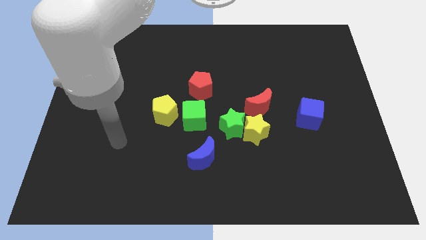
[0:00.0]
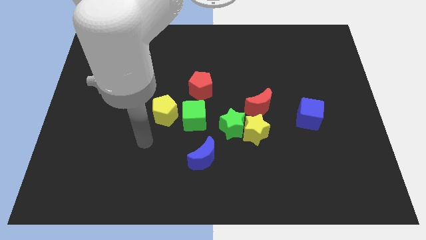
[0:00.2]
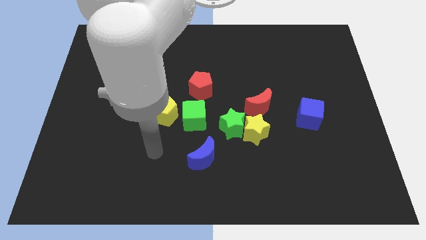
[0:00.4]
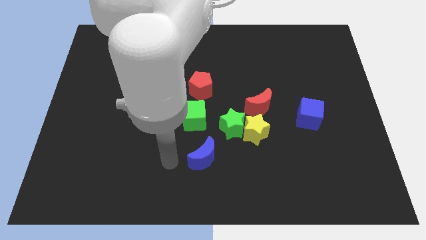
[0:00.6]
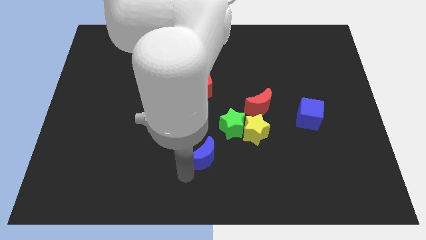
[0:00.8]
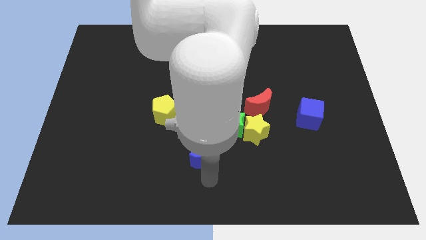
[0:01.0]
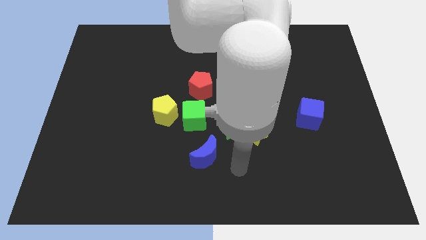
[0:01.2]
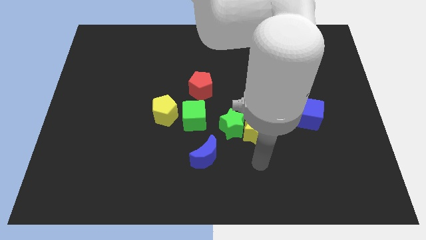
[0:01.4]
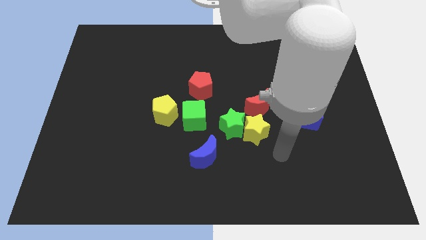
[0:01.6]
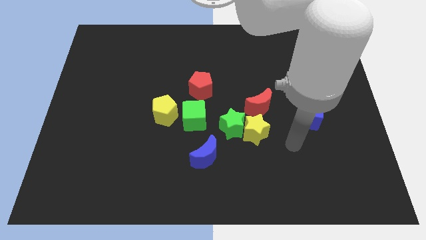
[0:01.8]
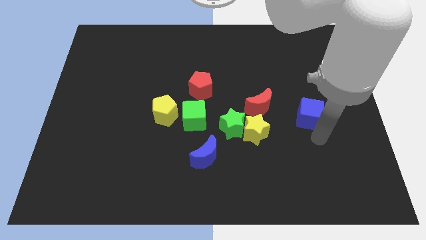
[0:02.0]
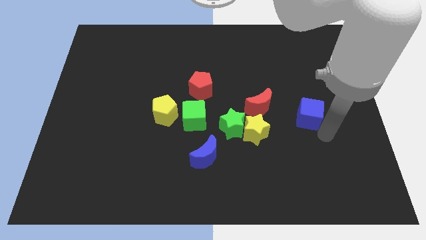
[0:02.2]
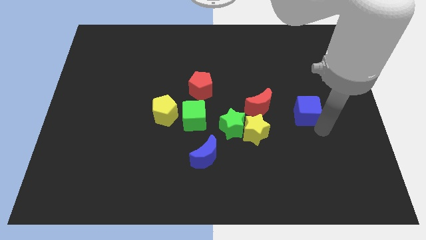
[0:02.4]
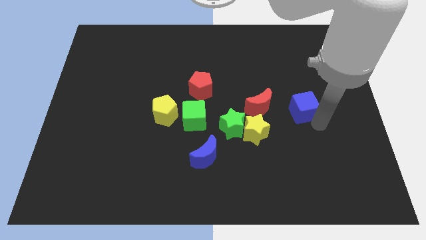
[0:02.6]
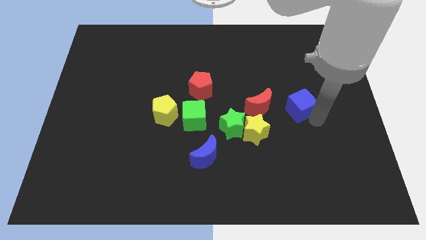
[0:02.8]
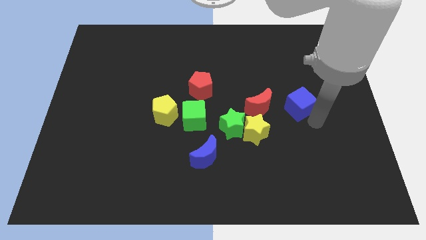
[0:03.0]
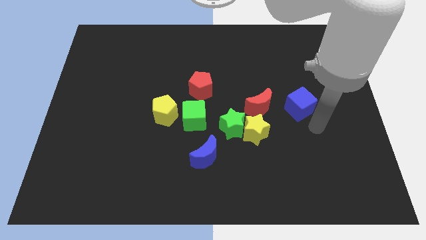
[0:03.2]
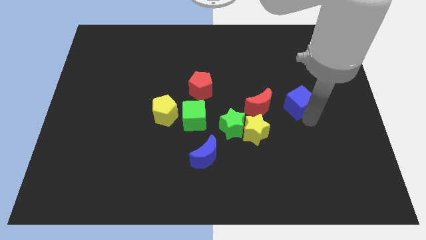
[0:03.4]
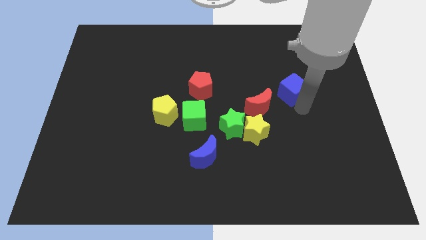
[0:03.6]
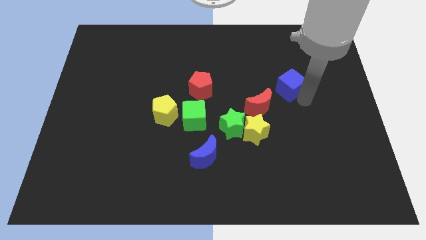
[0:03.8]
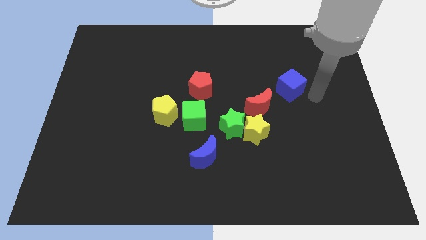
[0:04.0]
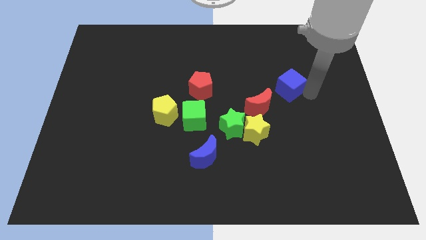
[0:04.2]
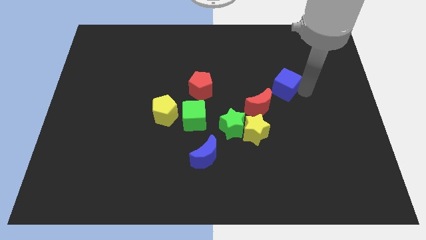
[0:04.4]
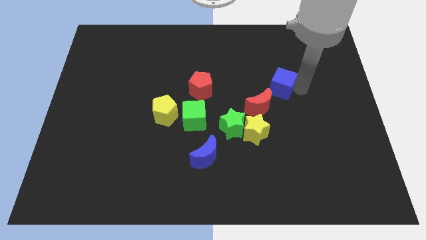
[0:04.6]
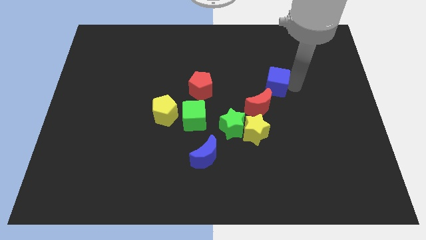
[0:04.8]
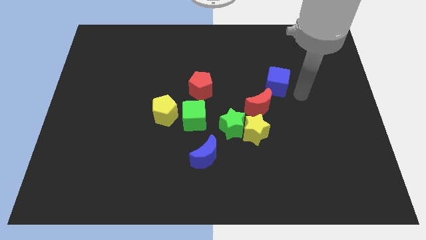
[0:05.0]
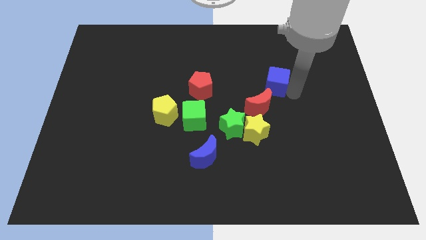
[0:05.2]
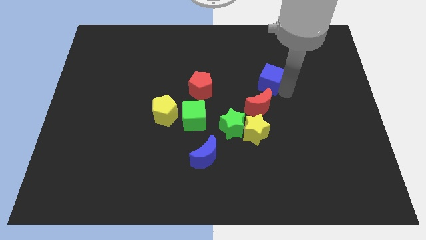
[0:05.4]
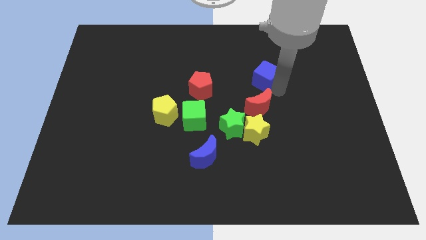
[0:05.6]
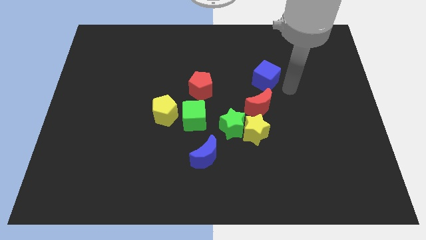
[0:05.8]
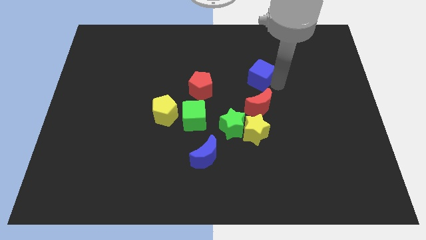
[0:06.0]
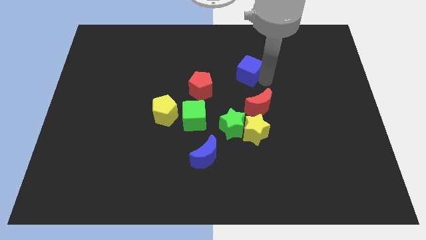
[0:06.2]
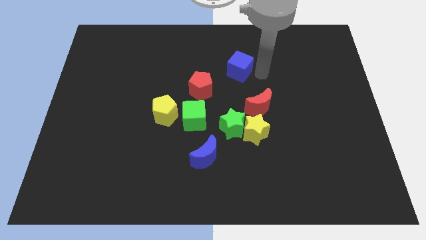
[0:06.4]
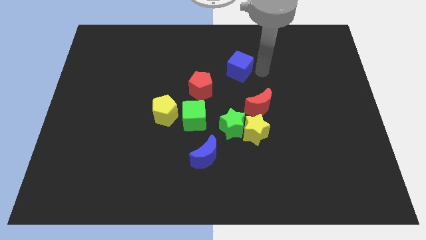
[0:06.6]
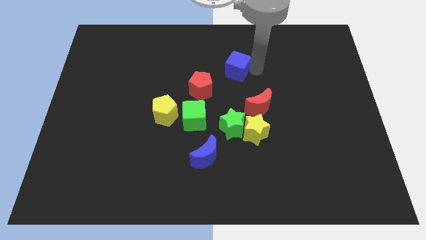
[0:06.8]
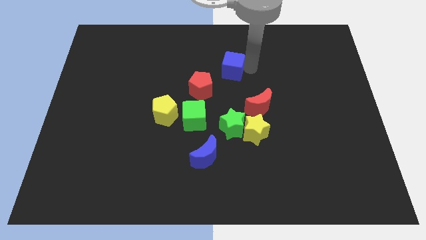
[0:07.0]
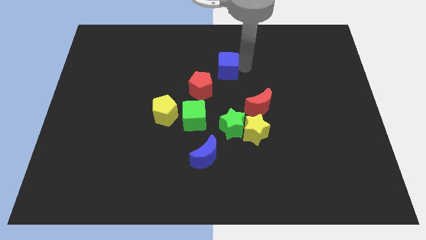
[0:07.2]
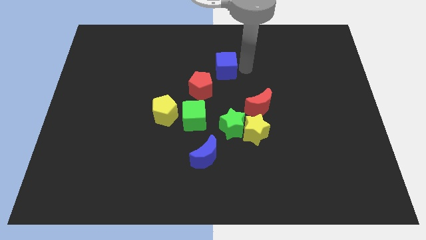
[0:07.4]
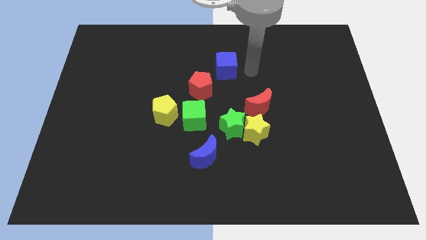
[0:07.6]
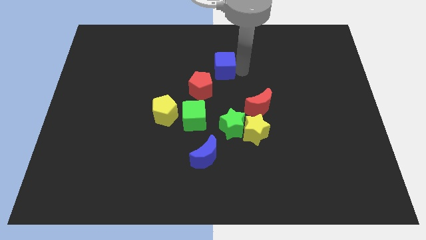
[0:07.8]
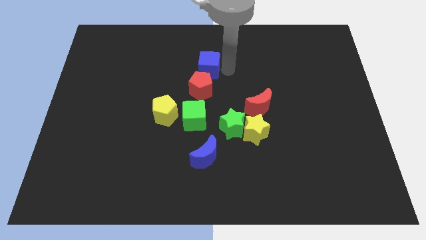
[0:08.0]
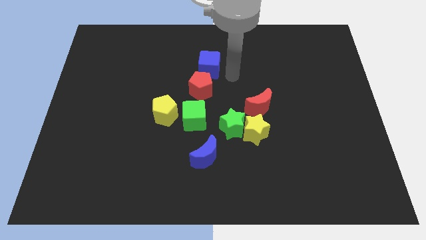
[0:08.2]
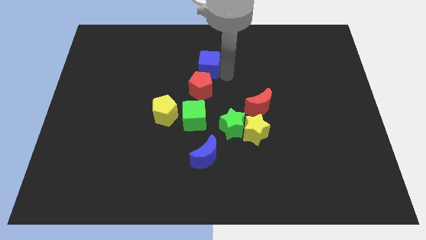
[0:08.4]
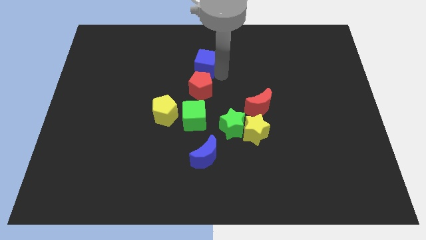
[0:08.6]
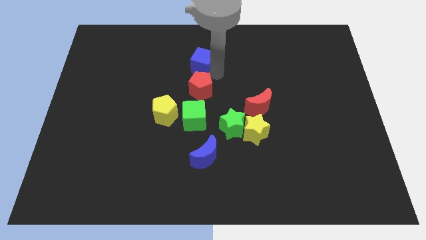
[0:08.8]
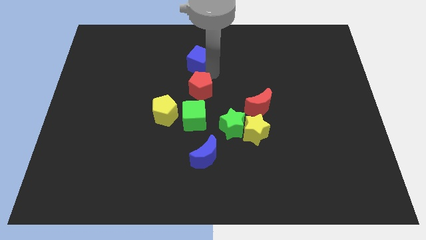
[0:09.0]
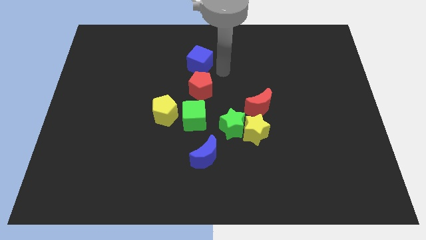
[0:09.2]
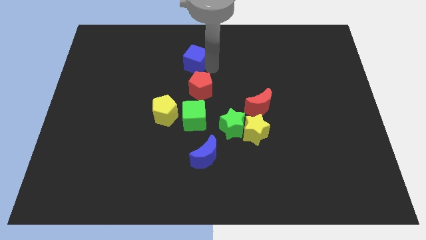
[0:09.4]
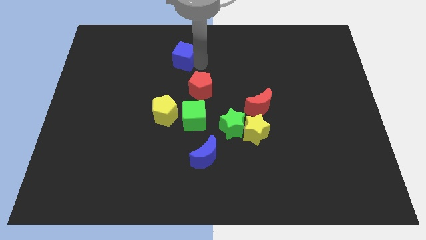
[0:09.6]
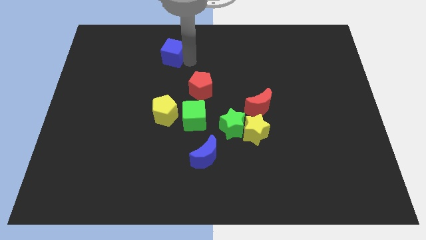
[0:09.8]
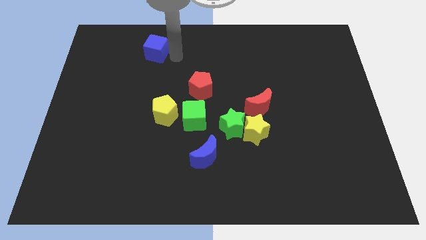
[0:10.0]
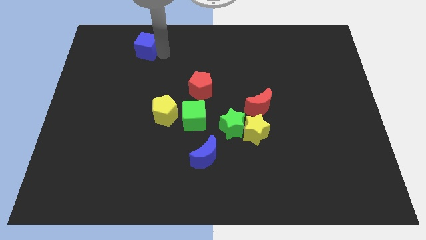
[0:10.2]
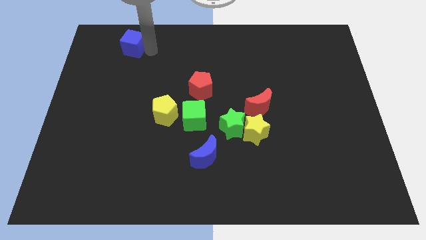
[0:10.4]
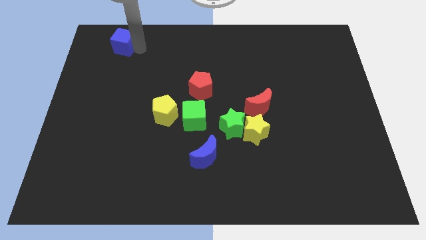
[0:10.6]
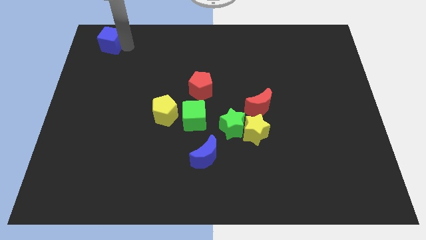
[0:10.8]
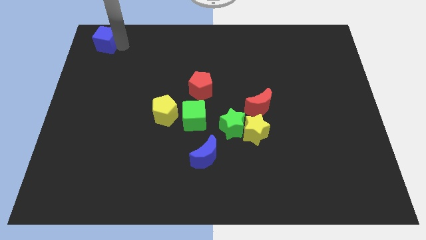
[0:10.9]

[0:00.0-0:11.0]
move the blue cube to the top left
